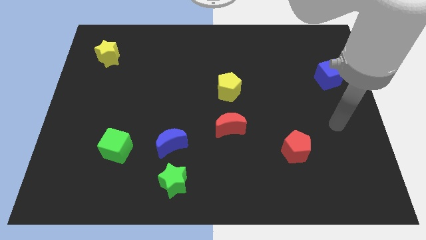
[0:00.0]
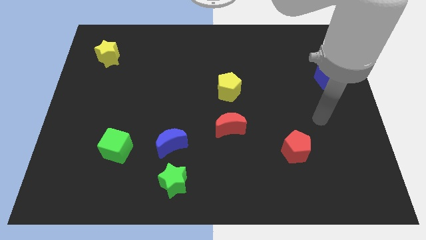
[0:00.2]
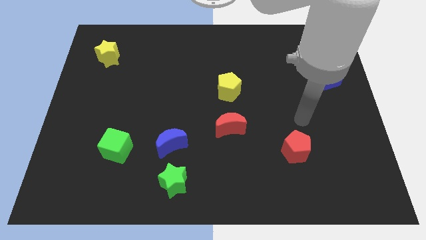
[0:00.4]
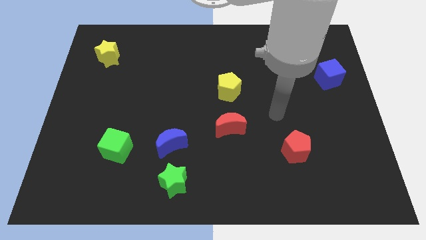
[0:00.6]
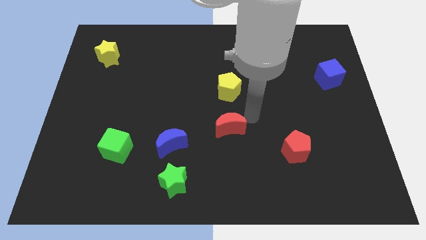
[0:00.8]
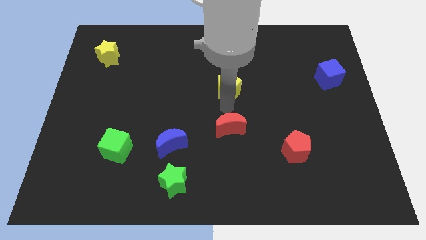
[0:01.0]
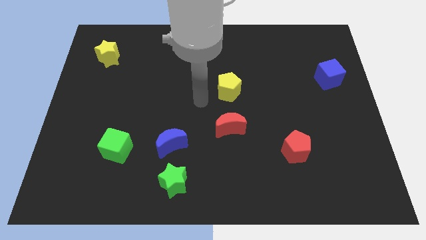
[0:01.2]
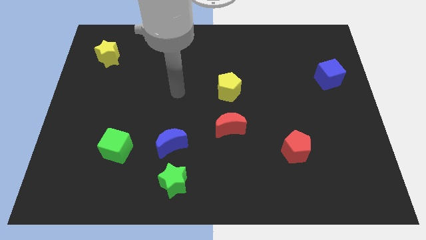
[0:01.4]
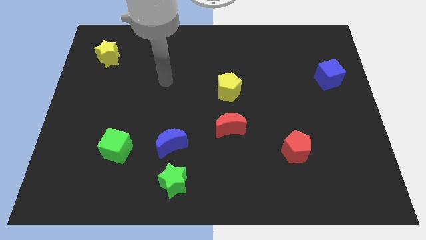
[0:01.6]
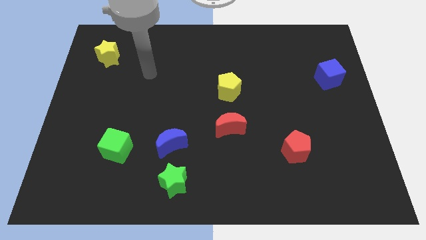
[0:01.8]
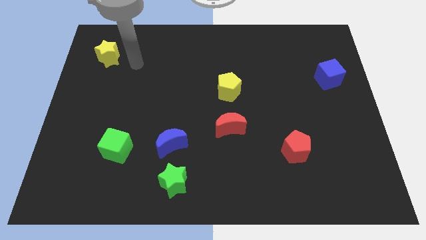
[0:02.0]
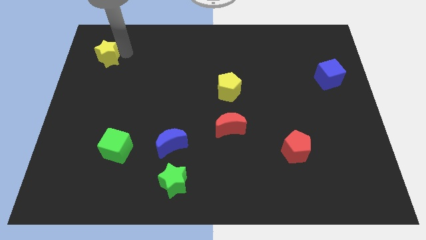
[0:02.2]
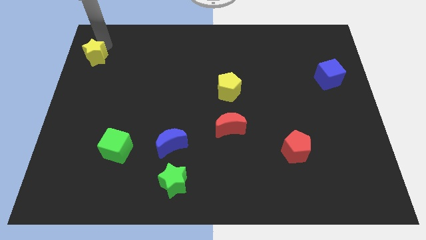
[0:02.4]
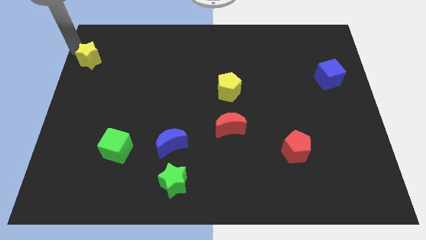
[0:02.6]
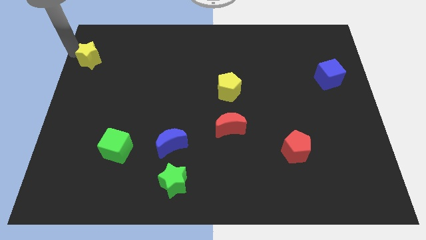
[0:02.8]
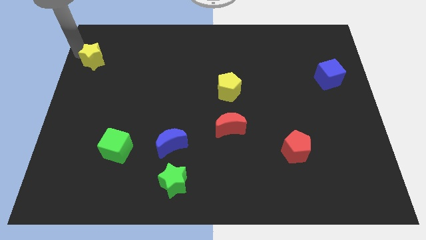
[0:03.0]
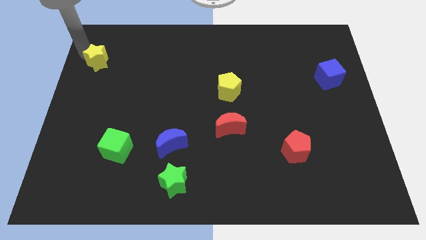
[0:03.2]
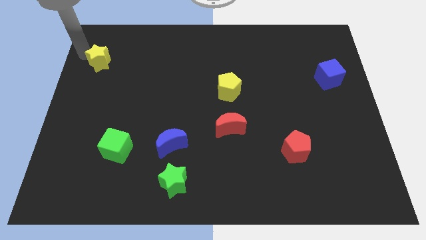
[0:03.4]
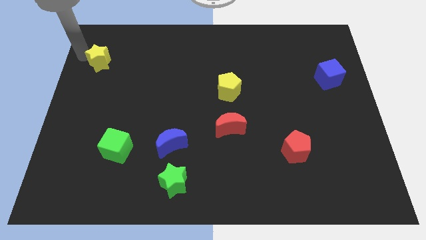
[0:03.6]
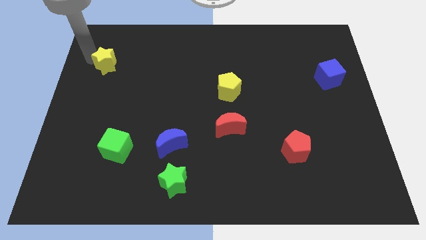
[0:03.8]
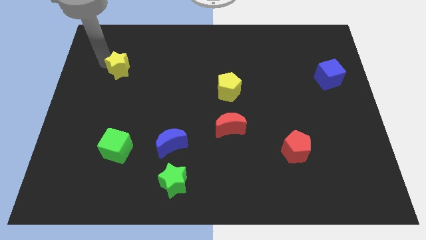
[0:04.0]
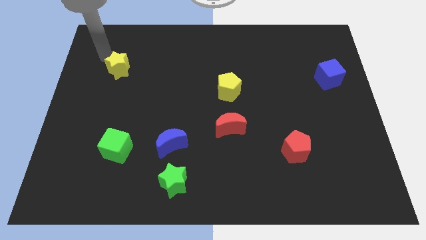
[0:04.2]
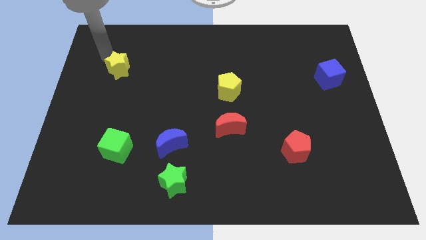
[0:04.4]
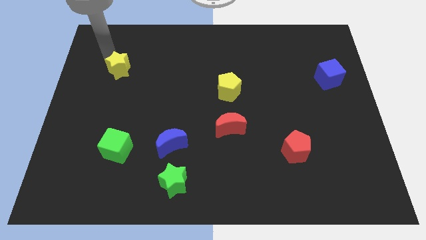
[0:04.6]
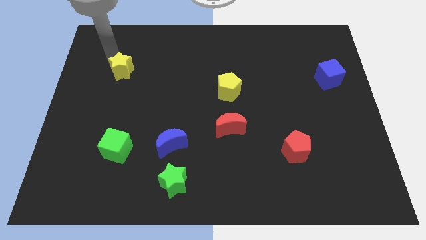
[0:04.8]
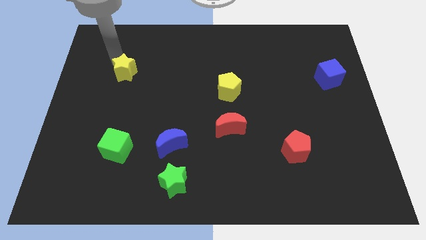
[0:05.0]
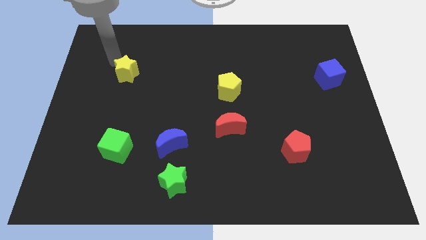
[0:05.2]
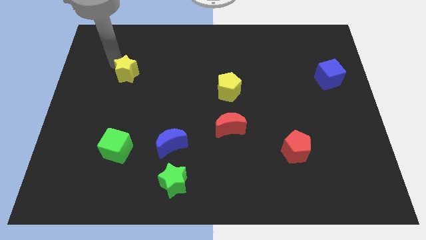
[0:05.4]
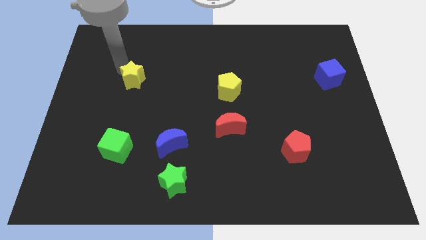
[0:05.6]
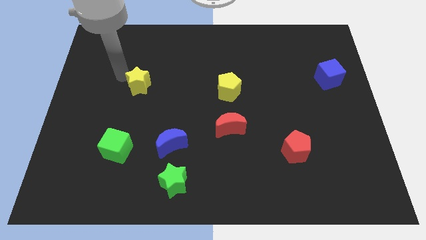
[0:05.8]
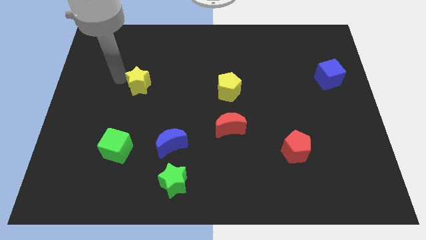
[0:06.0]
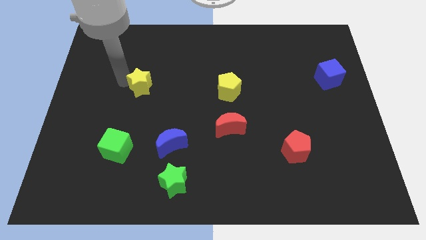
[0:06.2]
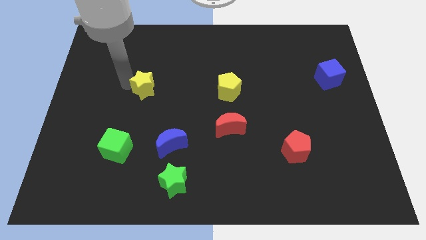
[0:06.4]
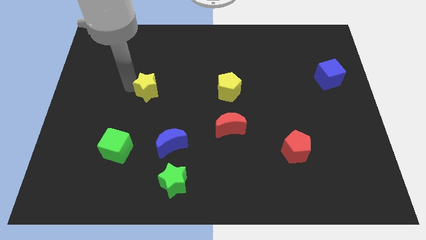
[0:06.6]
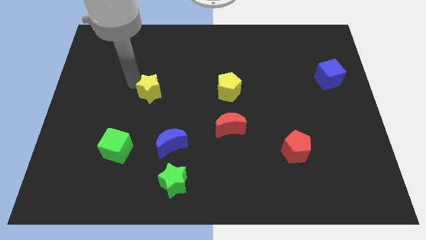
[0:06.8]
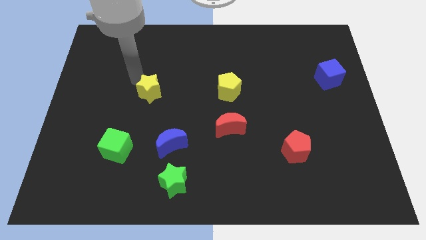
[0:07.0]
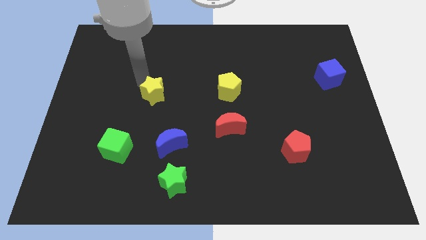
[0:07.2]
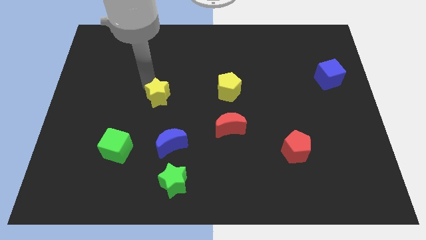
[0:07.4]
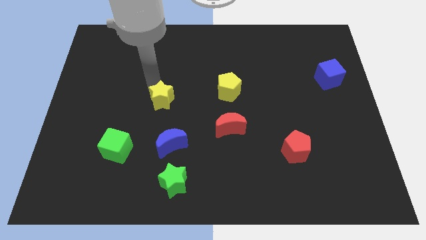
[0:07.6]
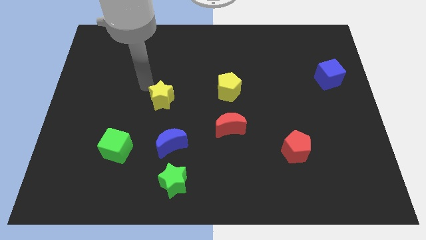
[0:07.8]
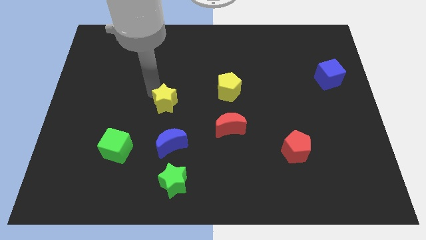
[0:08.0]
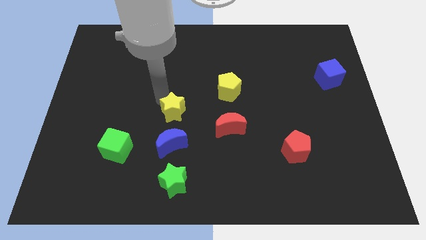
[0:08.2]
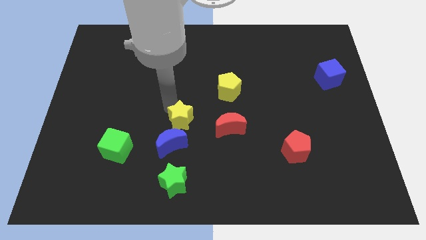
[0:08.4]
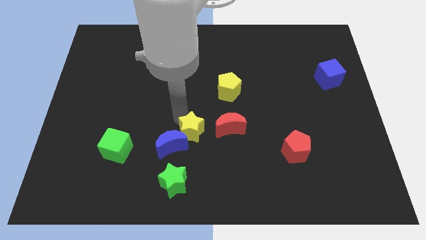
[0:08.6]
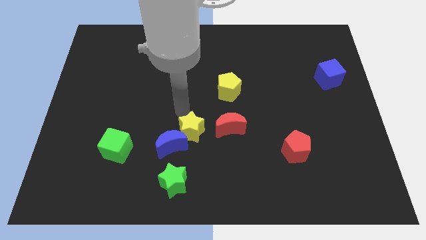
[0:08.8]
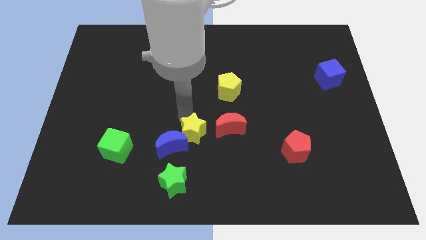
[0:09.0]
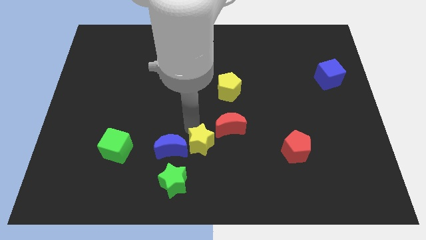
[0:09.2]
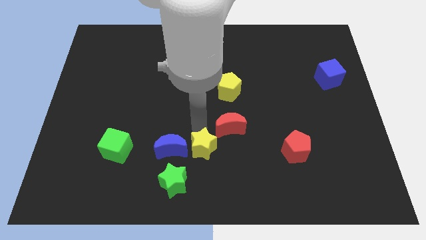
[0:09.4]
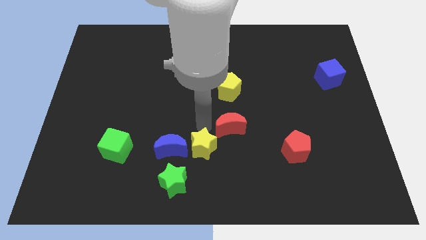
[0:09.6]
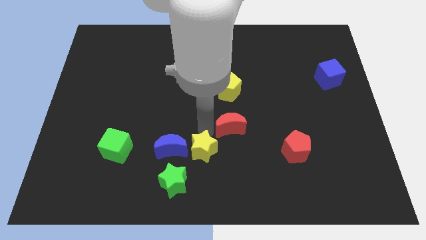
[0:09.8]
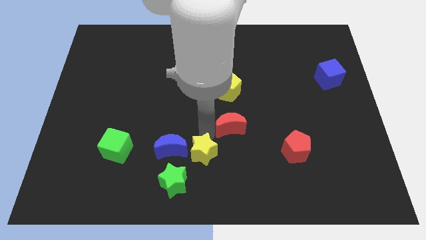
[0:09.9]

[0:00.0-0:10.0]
put the yellow star to the bottom side

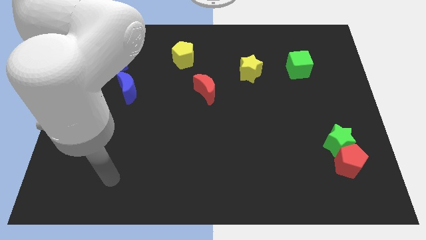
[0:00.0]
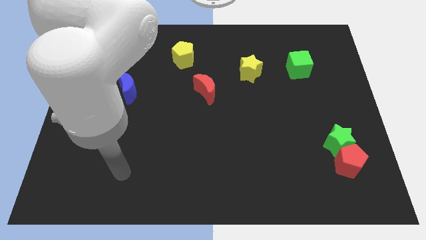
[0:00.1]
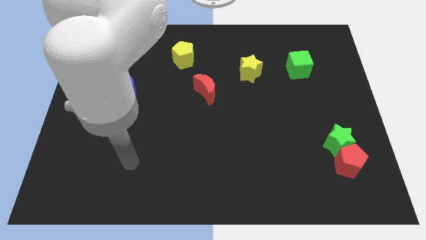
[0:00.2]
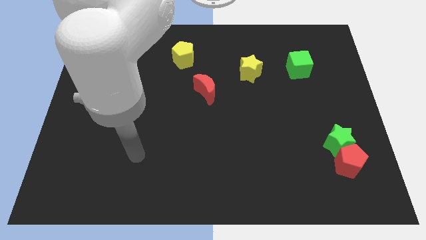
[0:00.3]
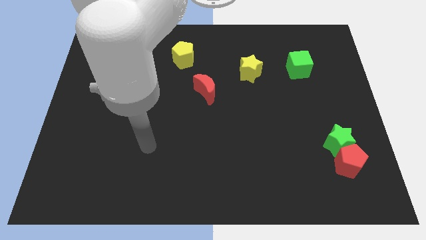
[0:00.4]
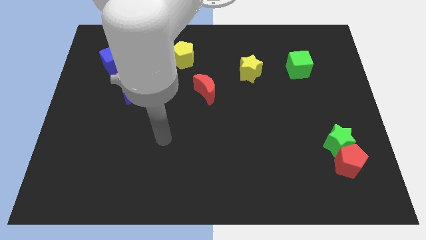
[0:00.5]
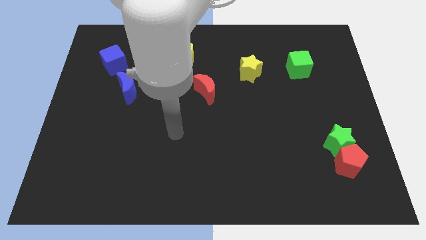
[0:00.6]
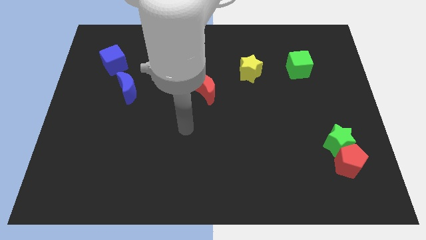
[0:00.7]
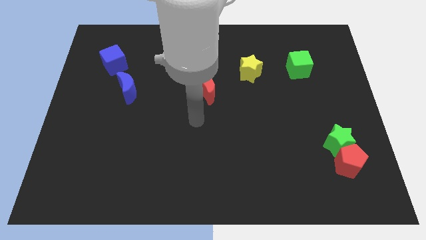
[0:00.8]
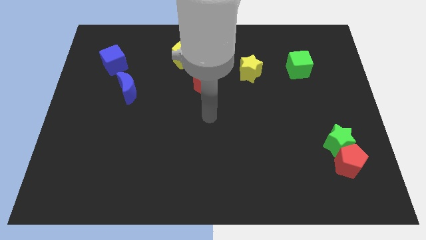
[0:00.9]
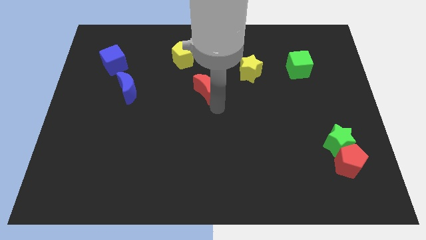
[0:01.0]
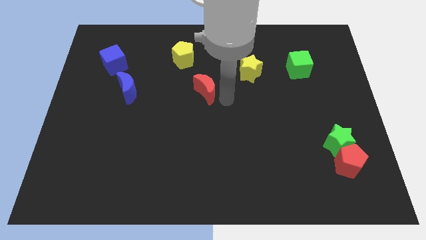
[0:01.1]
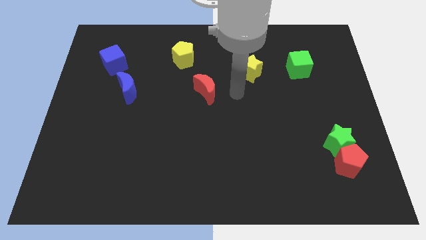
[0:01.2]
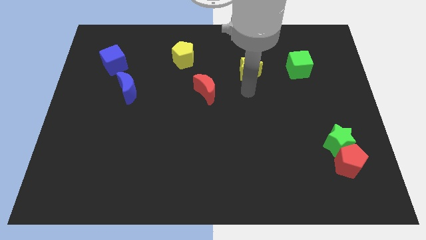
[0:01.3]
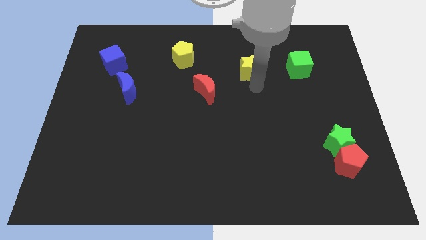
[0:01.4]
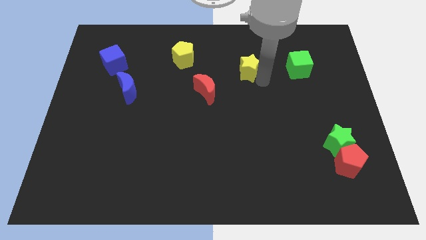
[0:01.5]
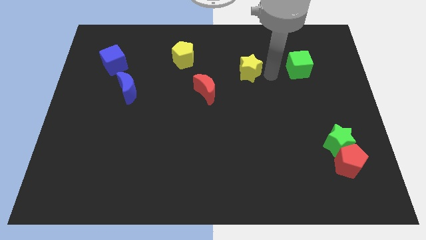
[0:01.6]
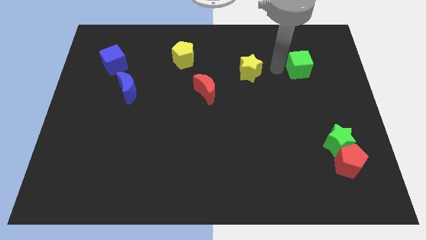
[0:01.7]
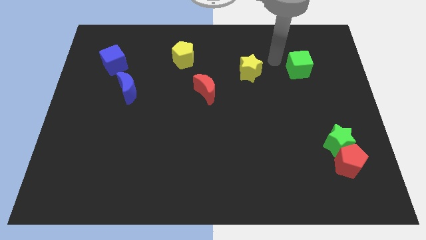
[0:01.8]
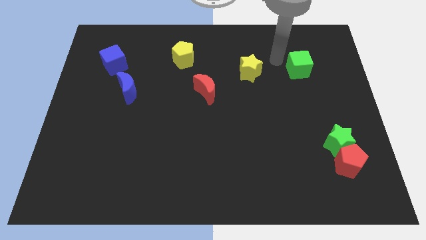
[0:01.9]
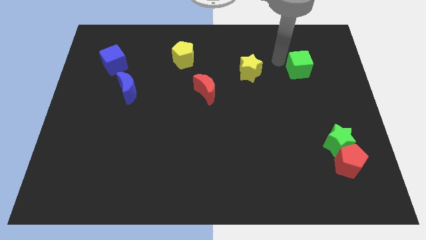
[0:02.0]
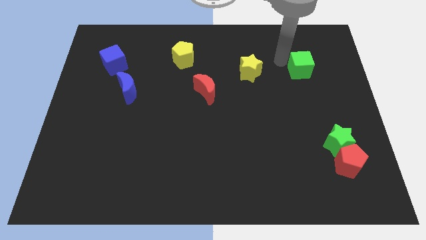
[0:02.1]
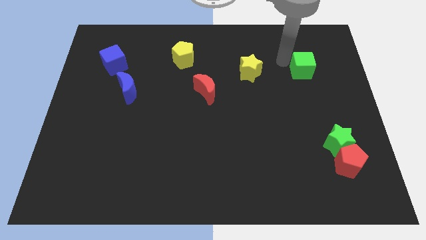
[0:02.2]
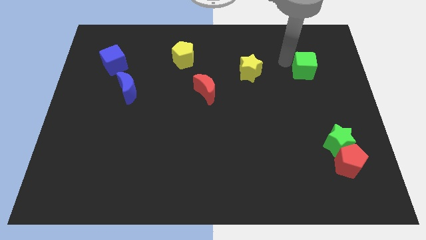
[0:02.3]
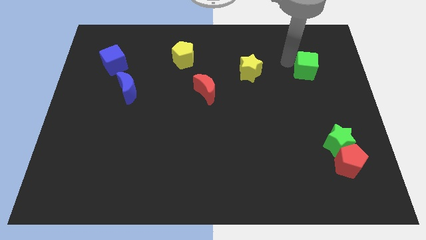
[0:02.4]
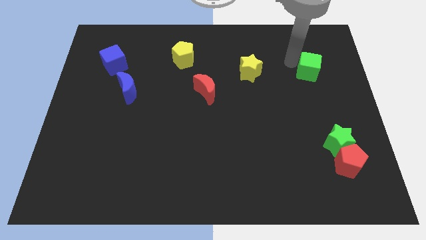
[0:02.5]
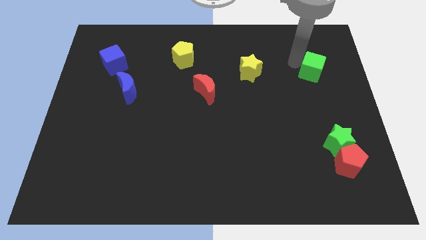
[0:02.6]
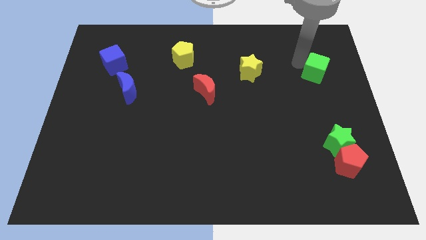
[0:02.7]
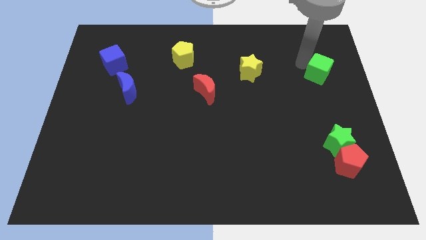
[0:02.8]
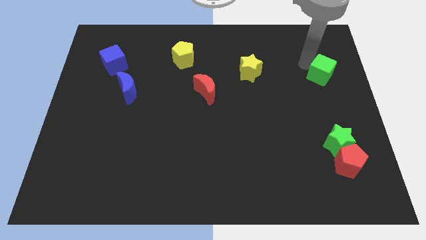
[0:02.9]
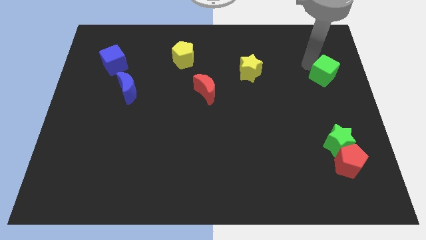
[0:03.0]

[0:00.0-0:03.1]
push the green cube to the center right
